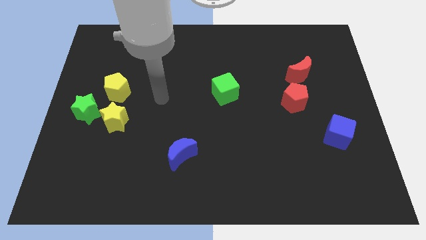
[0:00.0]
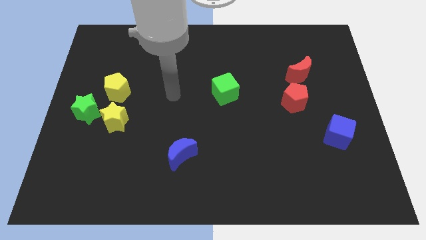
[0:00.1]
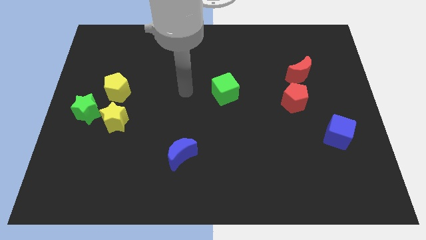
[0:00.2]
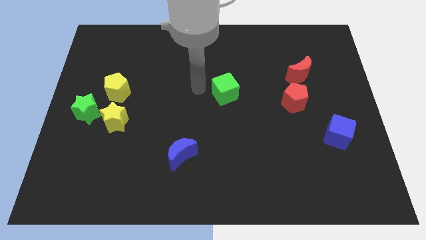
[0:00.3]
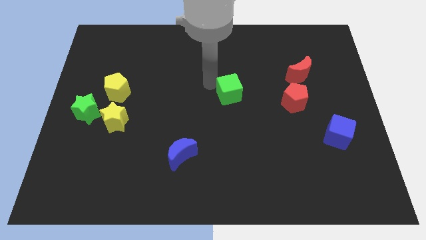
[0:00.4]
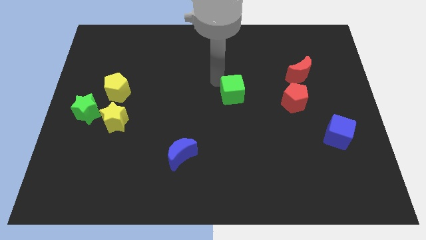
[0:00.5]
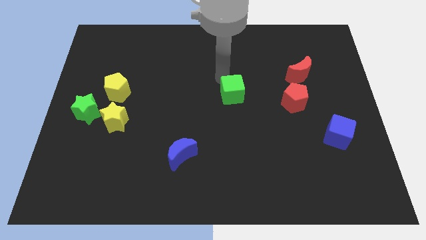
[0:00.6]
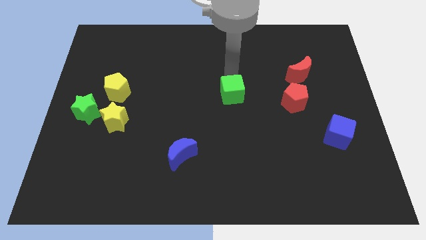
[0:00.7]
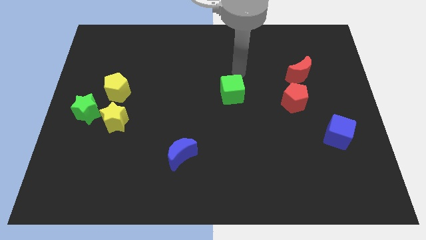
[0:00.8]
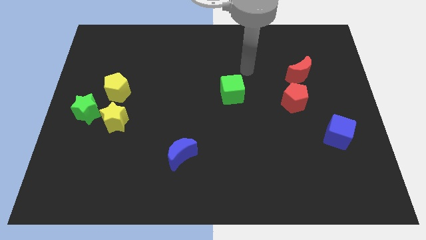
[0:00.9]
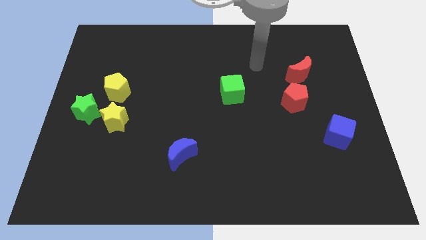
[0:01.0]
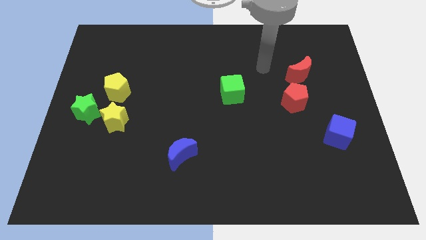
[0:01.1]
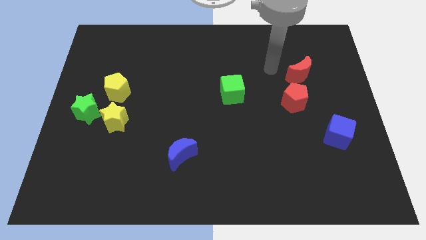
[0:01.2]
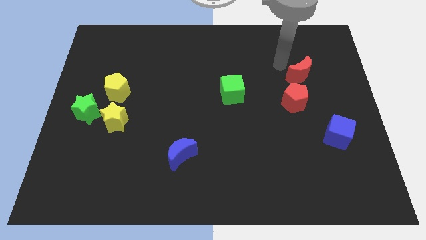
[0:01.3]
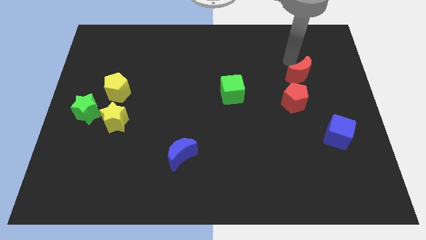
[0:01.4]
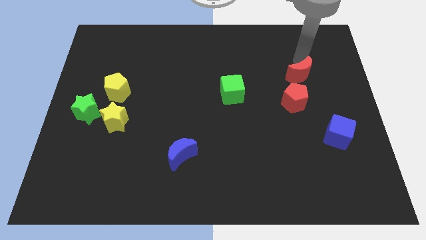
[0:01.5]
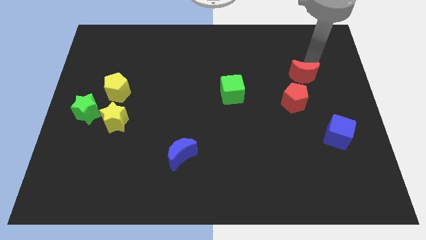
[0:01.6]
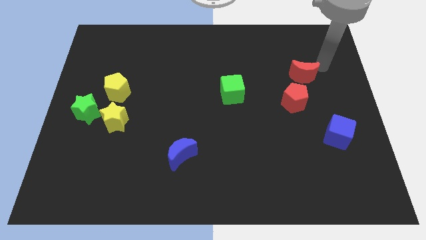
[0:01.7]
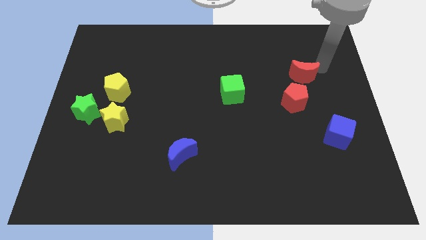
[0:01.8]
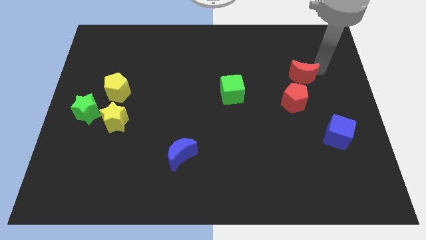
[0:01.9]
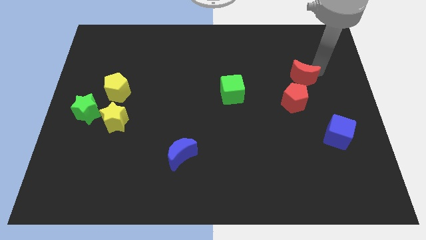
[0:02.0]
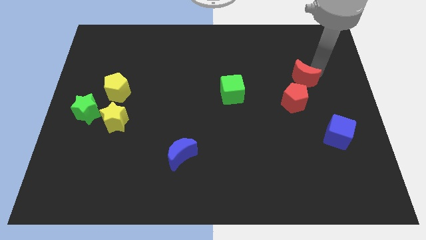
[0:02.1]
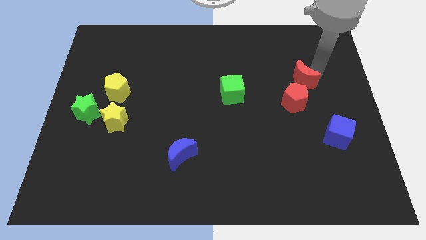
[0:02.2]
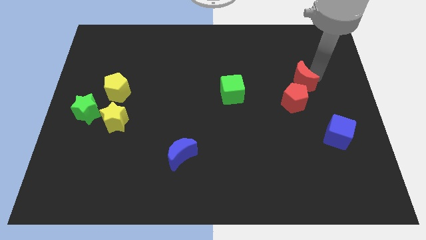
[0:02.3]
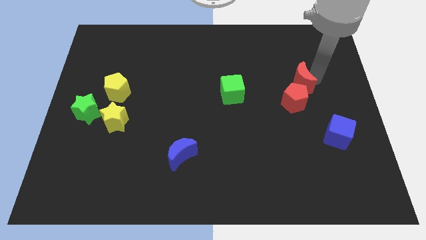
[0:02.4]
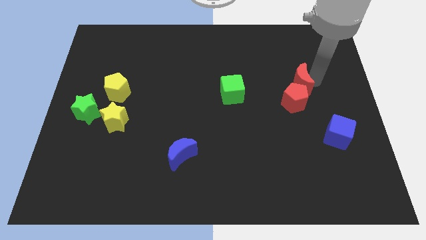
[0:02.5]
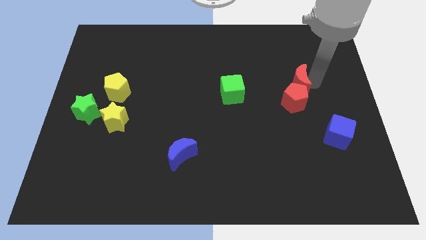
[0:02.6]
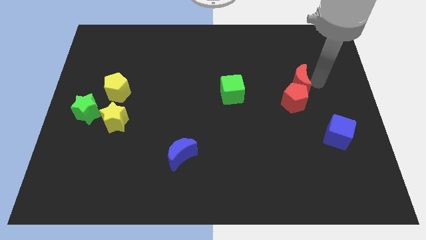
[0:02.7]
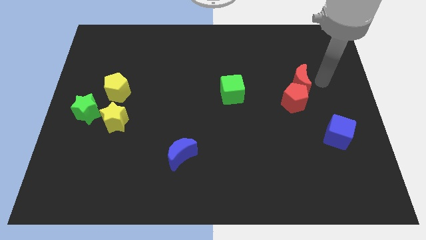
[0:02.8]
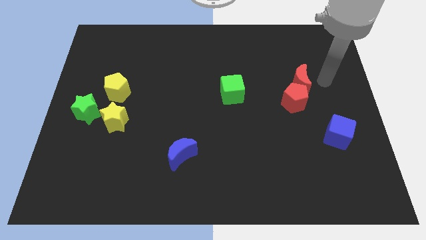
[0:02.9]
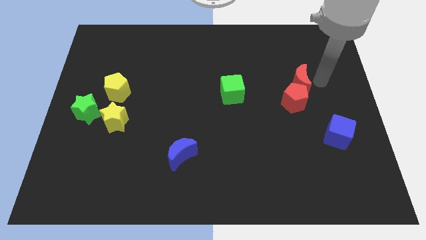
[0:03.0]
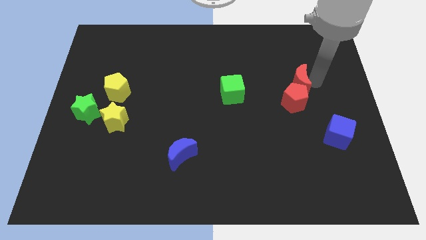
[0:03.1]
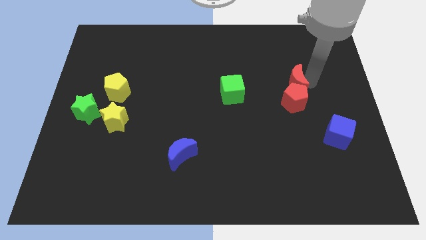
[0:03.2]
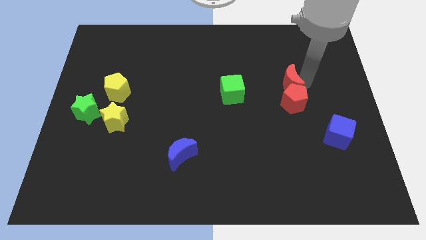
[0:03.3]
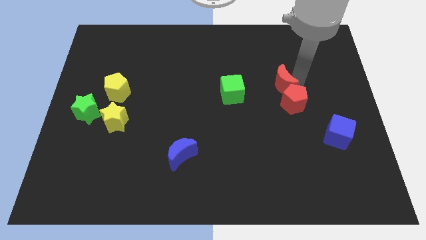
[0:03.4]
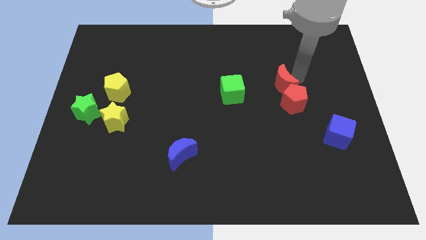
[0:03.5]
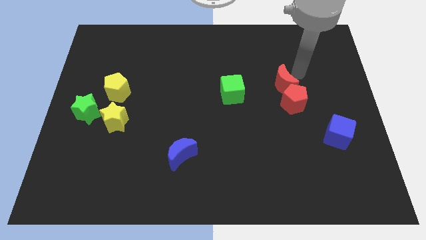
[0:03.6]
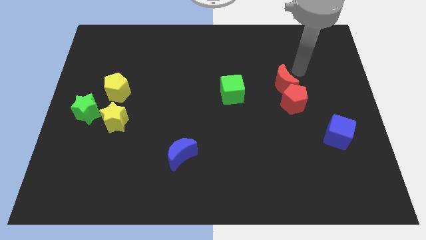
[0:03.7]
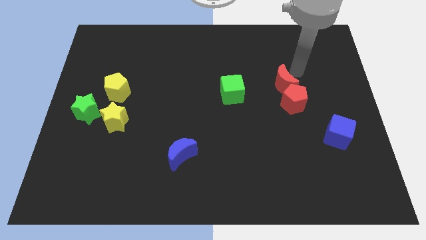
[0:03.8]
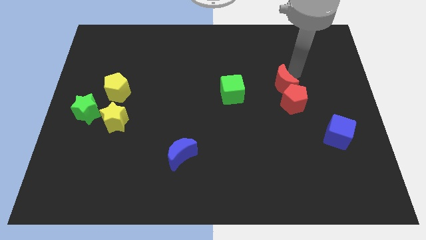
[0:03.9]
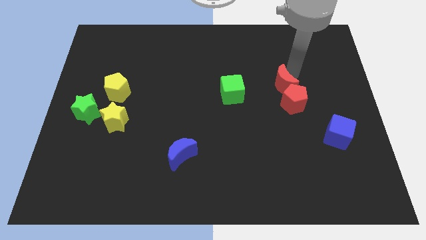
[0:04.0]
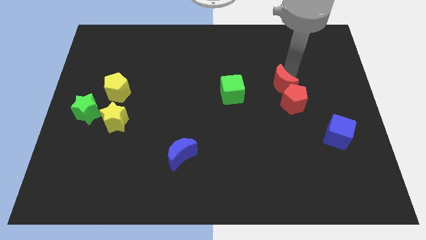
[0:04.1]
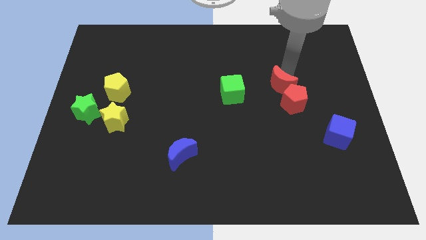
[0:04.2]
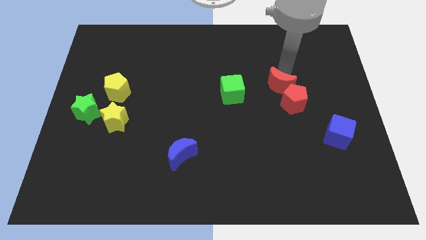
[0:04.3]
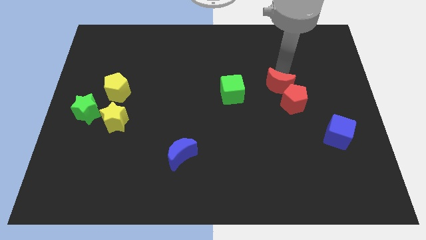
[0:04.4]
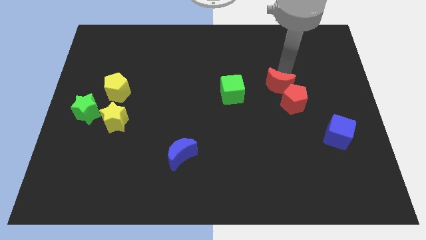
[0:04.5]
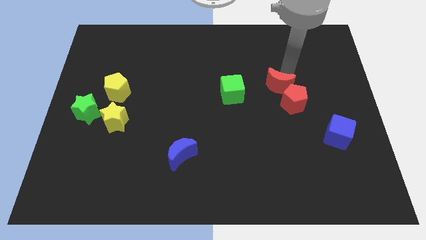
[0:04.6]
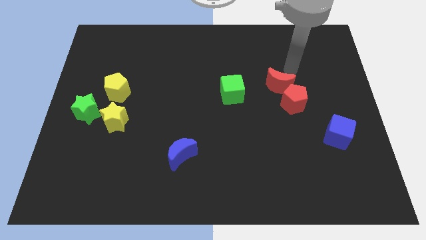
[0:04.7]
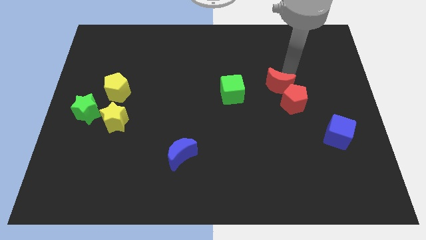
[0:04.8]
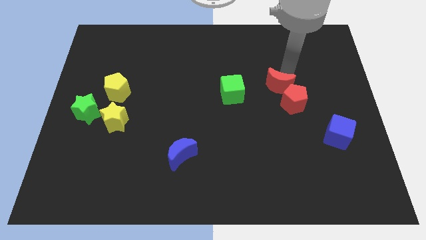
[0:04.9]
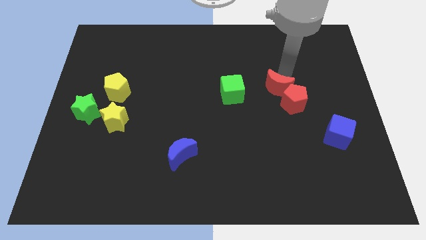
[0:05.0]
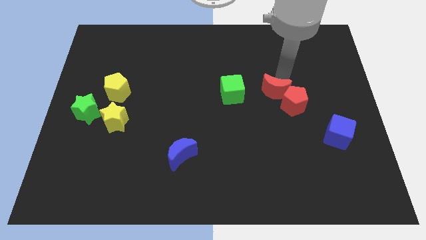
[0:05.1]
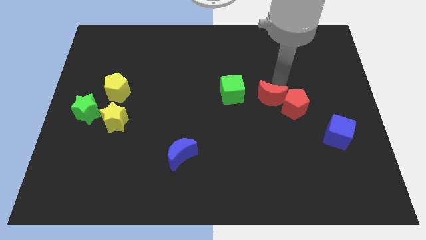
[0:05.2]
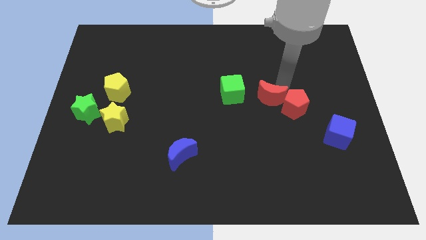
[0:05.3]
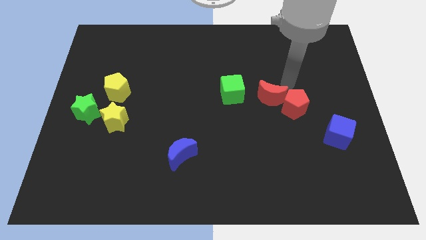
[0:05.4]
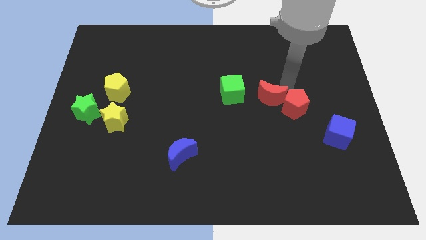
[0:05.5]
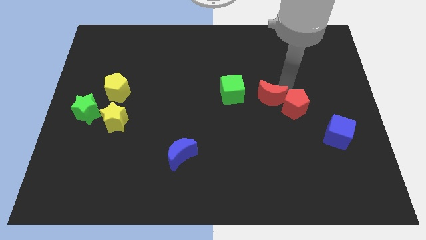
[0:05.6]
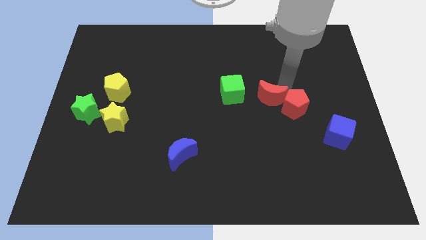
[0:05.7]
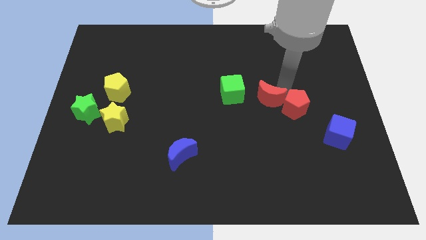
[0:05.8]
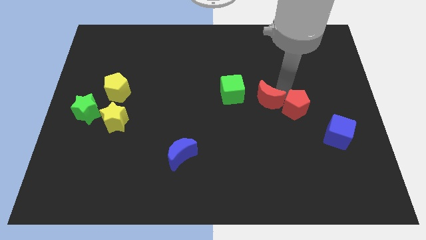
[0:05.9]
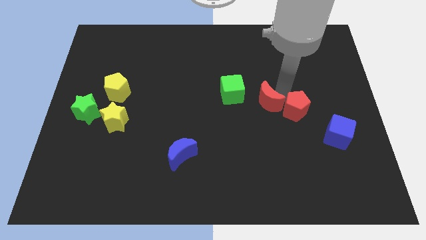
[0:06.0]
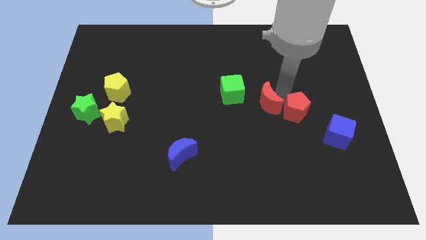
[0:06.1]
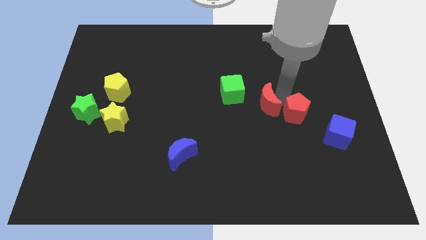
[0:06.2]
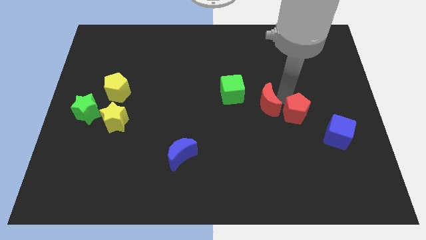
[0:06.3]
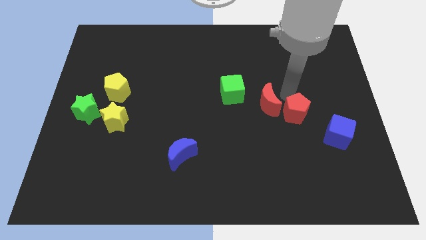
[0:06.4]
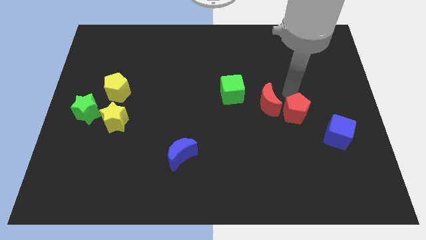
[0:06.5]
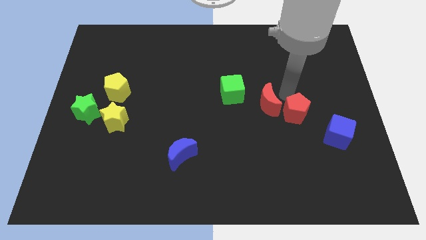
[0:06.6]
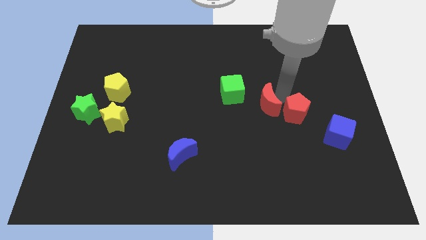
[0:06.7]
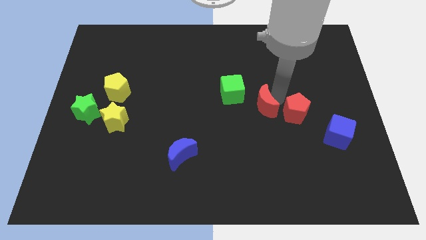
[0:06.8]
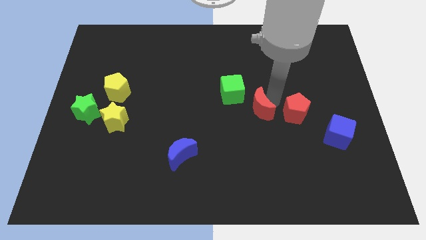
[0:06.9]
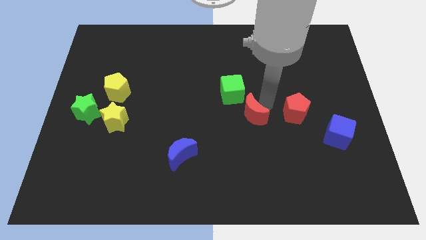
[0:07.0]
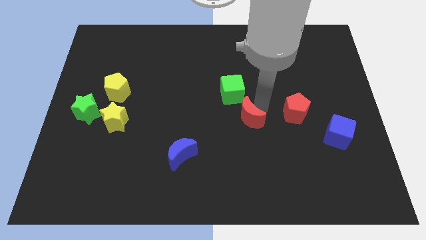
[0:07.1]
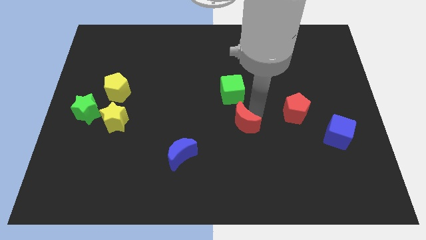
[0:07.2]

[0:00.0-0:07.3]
slide the red moon downwards and left diagonally

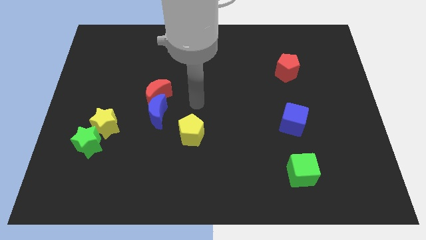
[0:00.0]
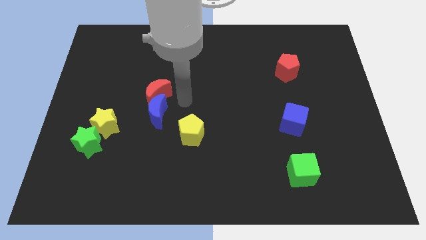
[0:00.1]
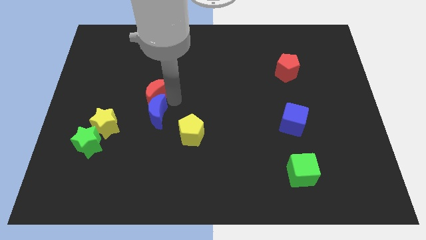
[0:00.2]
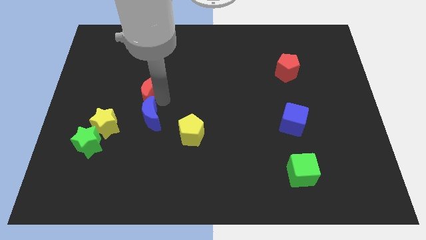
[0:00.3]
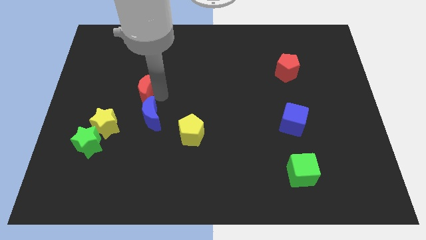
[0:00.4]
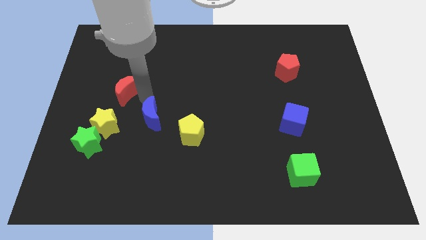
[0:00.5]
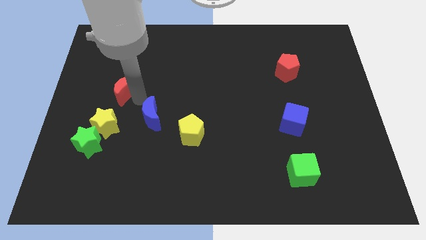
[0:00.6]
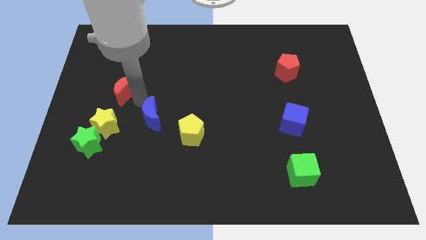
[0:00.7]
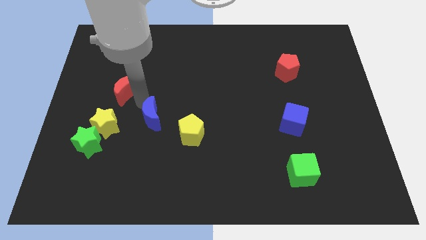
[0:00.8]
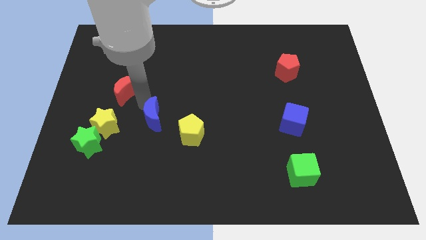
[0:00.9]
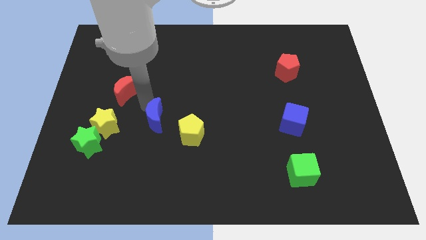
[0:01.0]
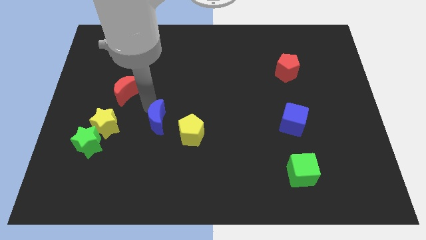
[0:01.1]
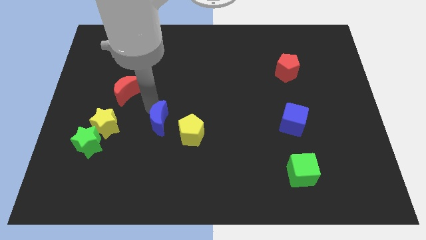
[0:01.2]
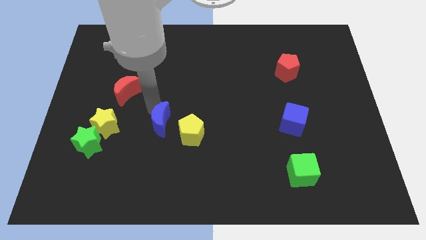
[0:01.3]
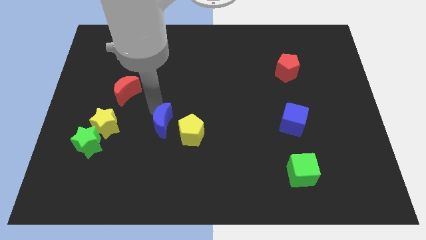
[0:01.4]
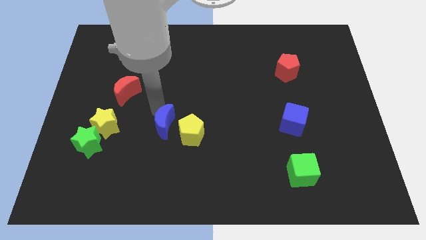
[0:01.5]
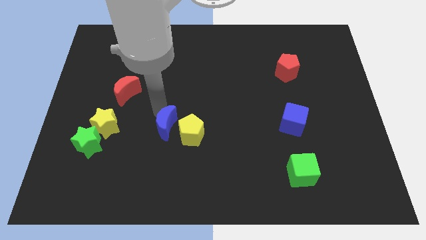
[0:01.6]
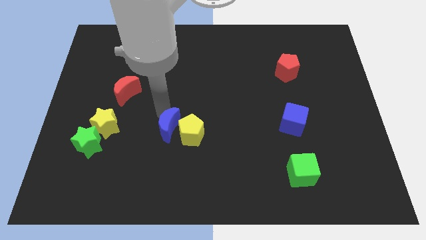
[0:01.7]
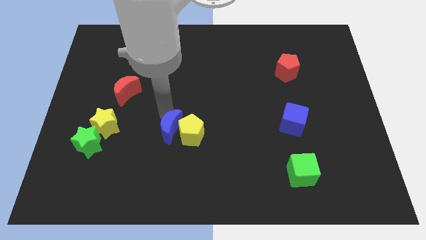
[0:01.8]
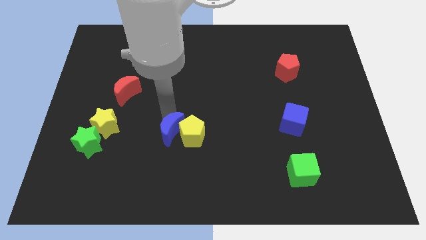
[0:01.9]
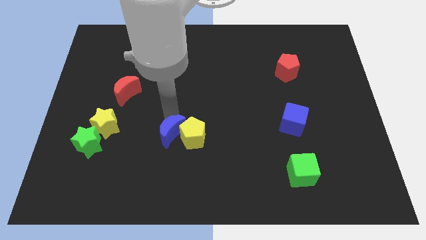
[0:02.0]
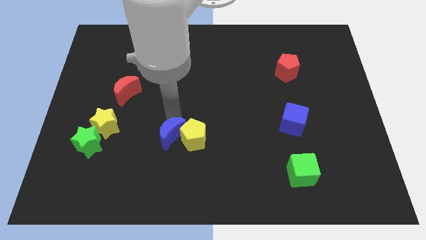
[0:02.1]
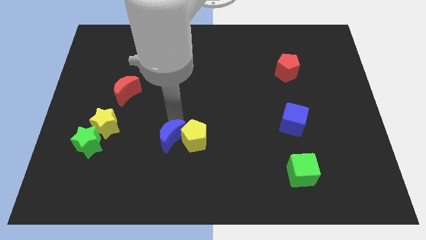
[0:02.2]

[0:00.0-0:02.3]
slightly move the blue moon downwards and then to the right
